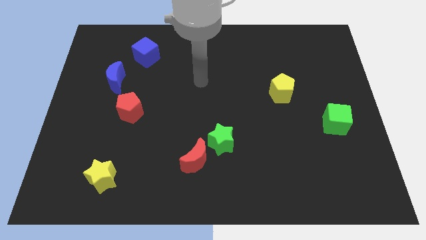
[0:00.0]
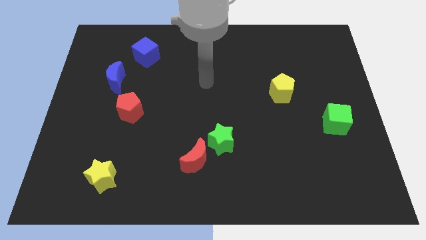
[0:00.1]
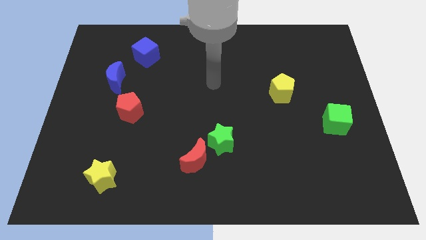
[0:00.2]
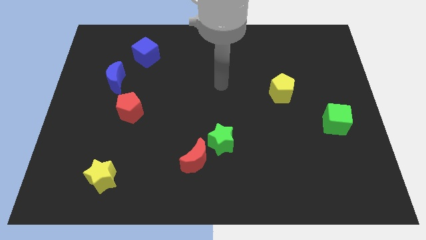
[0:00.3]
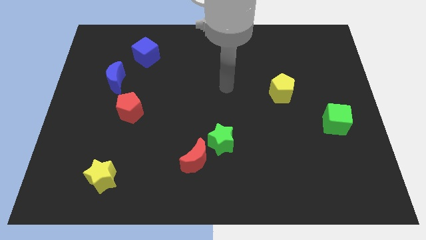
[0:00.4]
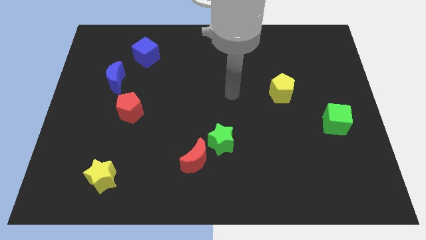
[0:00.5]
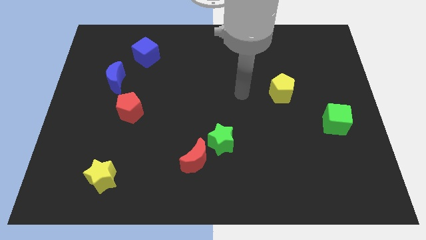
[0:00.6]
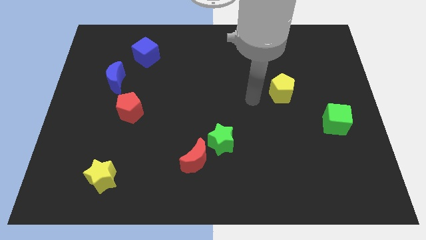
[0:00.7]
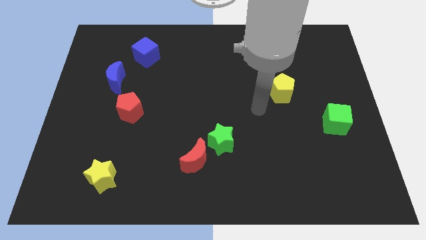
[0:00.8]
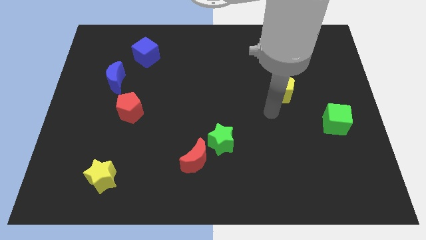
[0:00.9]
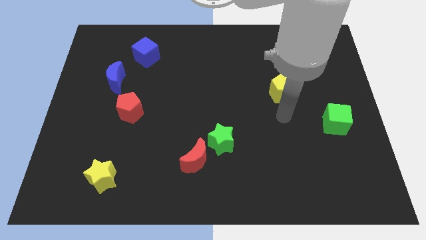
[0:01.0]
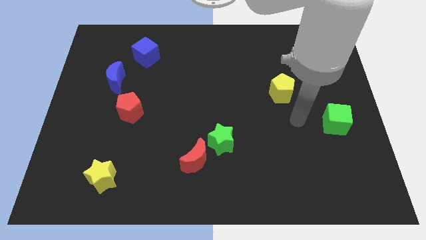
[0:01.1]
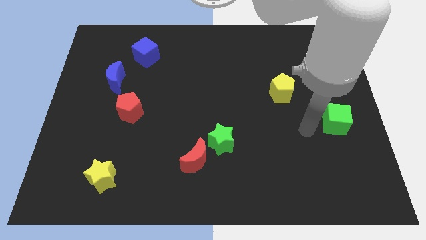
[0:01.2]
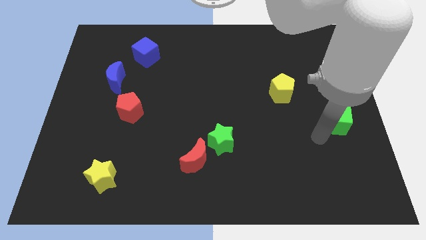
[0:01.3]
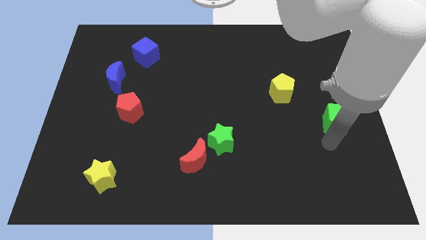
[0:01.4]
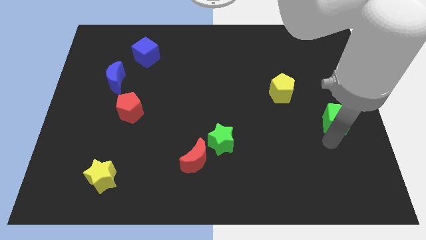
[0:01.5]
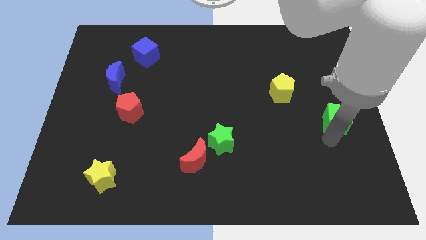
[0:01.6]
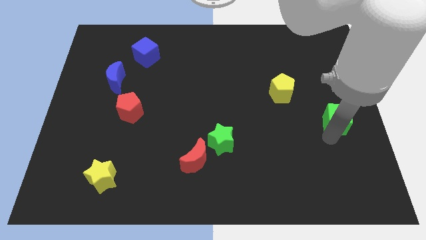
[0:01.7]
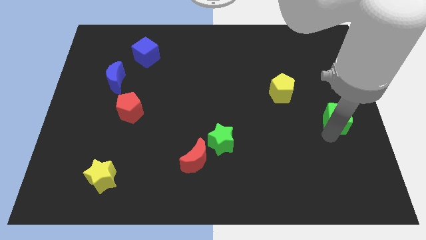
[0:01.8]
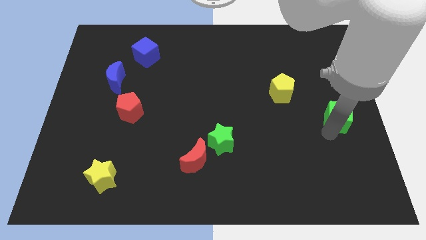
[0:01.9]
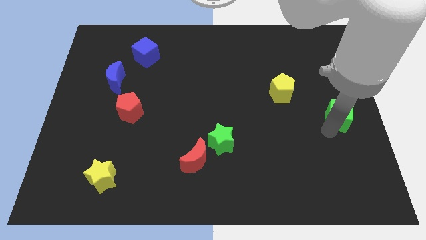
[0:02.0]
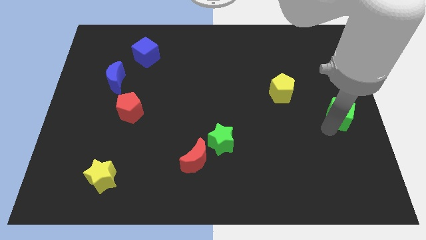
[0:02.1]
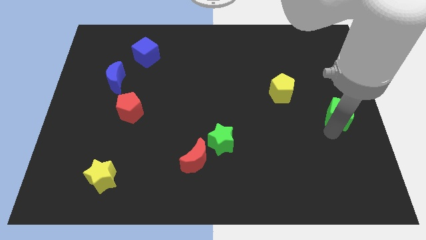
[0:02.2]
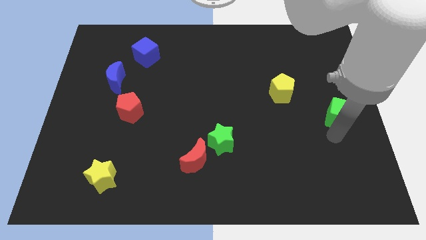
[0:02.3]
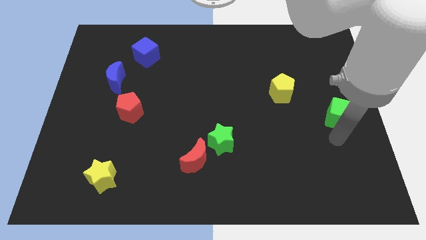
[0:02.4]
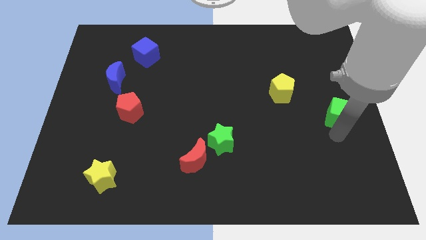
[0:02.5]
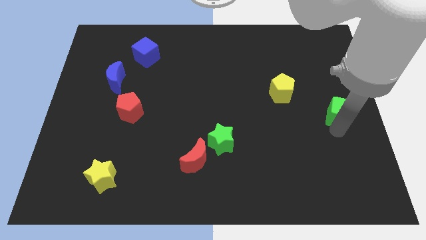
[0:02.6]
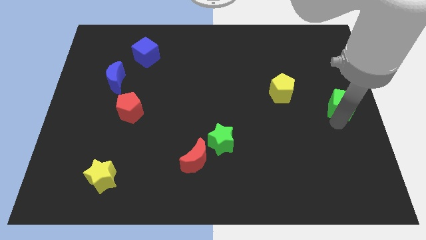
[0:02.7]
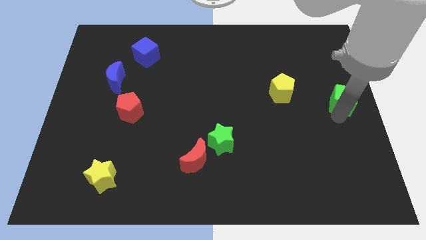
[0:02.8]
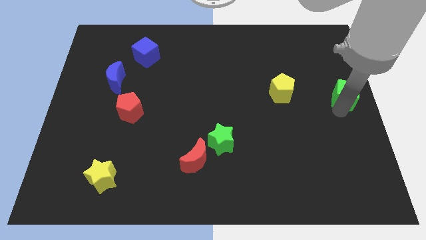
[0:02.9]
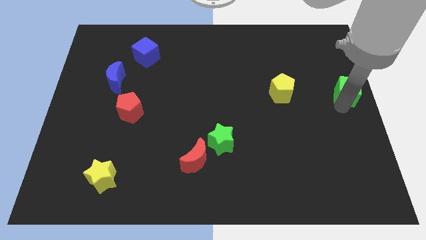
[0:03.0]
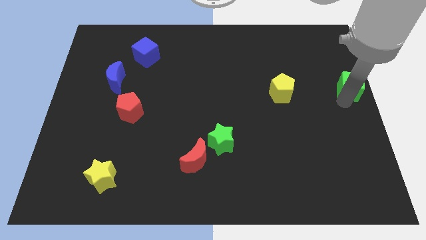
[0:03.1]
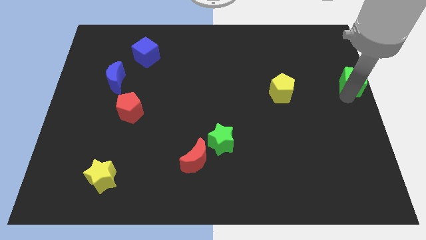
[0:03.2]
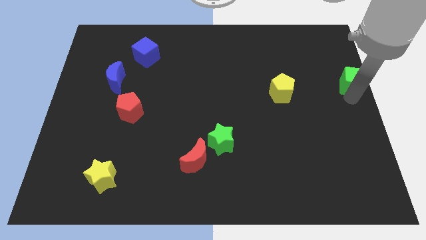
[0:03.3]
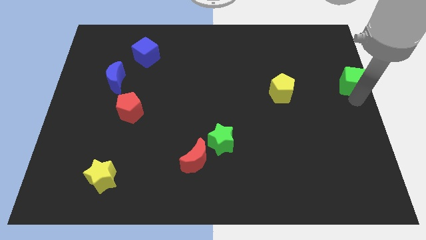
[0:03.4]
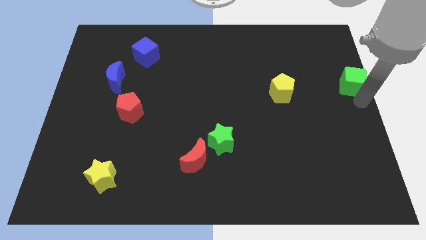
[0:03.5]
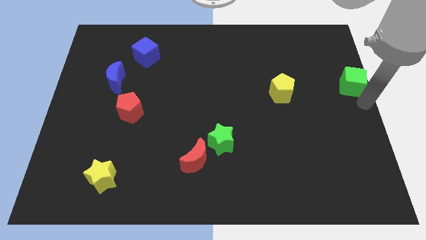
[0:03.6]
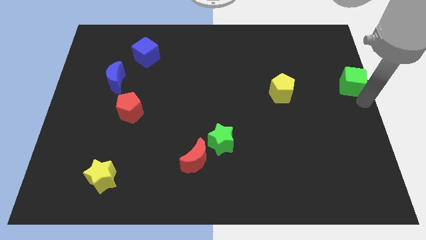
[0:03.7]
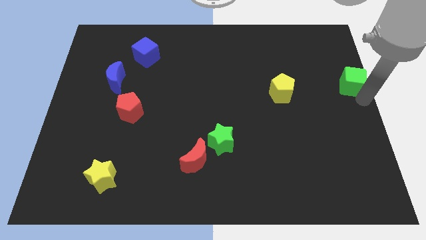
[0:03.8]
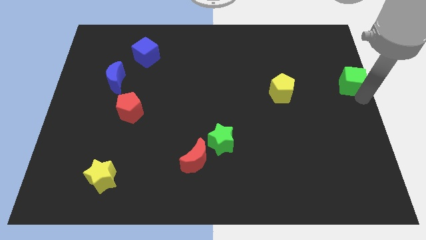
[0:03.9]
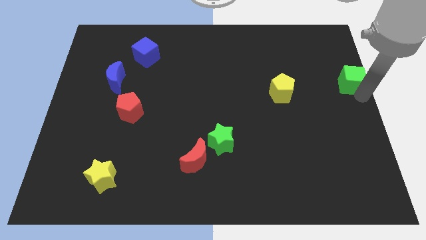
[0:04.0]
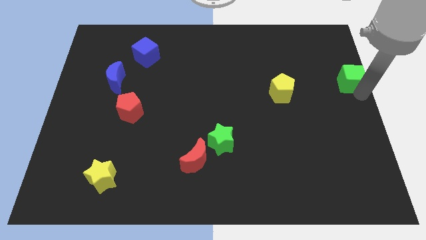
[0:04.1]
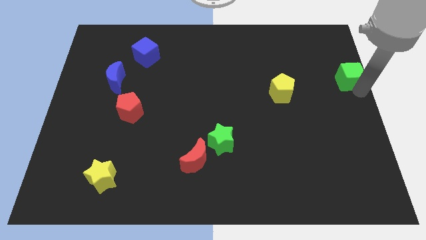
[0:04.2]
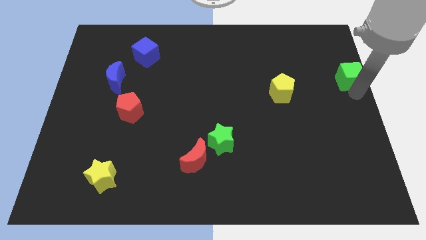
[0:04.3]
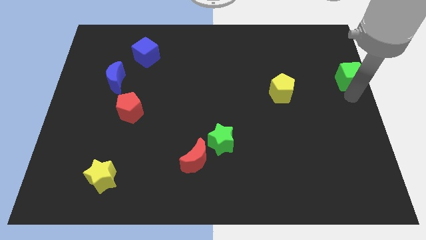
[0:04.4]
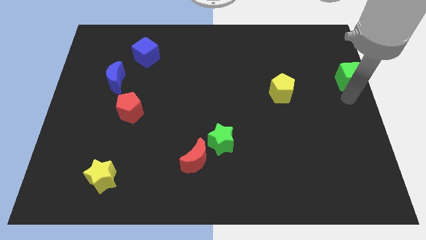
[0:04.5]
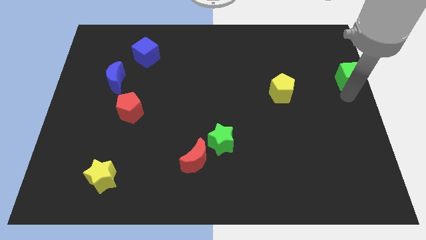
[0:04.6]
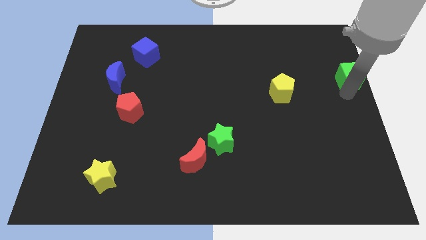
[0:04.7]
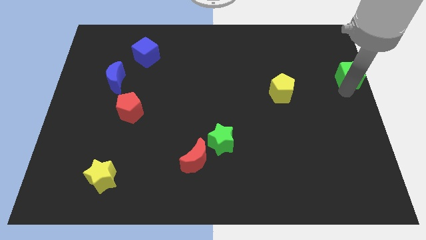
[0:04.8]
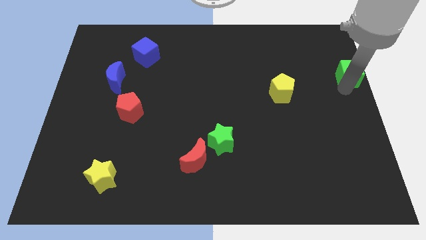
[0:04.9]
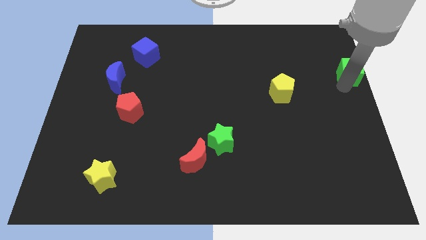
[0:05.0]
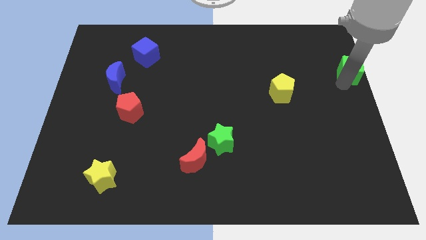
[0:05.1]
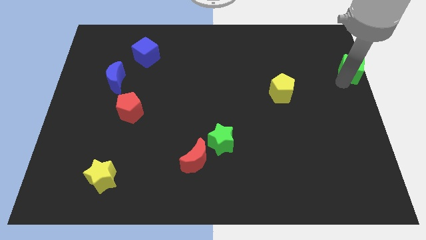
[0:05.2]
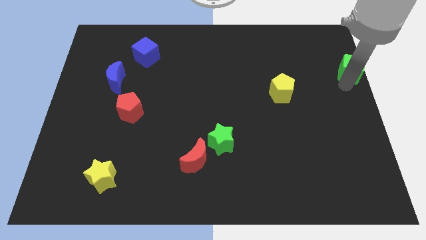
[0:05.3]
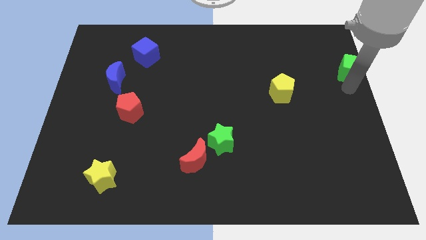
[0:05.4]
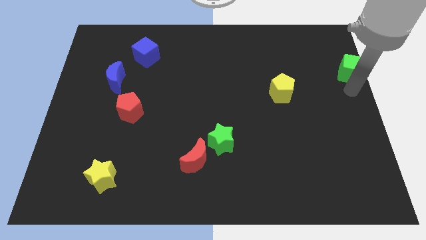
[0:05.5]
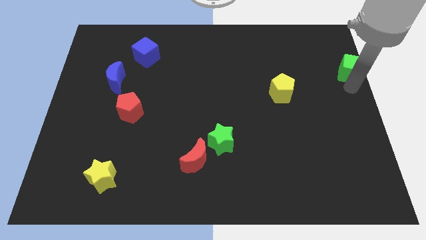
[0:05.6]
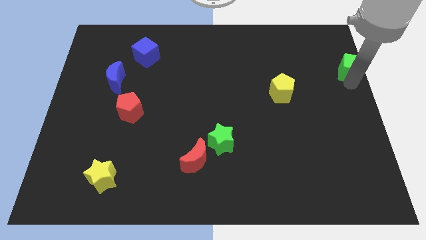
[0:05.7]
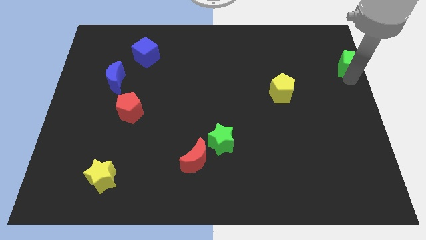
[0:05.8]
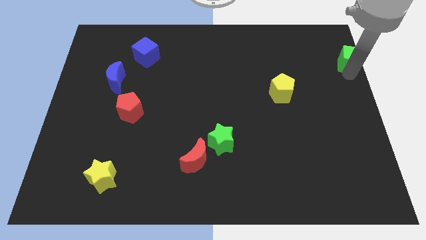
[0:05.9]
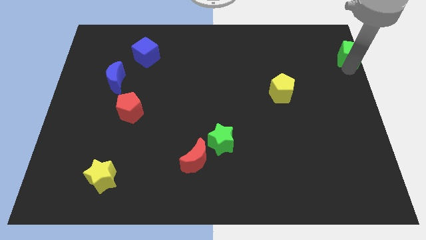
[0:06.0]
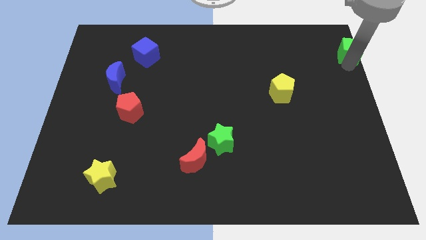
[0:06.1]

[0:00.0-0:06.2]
put the green cube to the top right

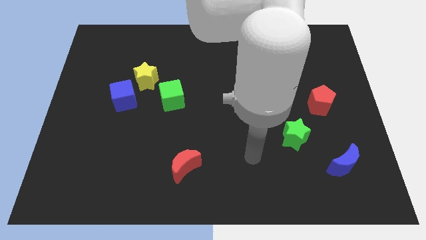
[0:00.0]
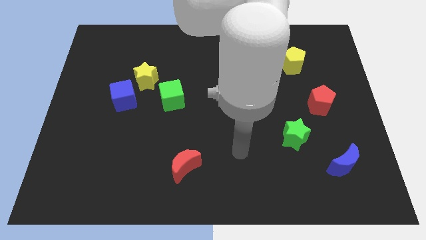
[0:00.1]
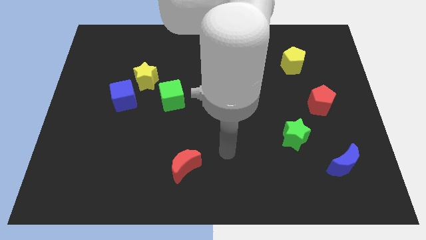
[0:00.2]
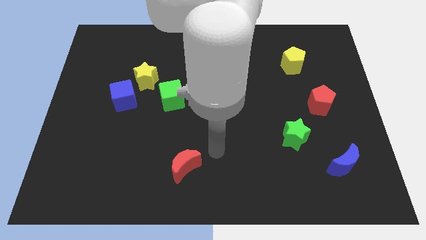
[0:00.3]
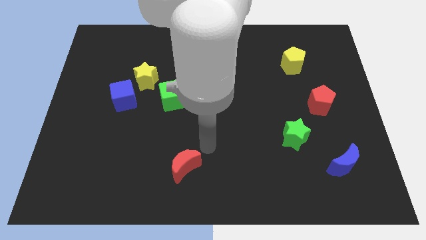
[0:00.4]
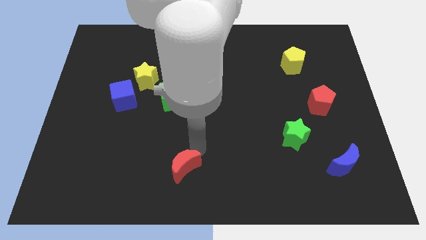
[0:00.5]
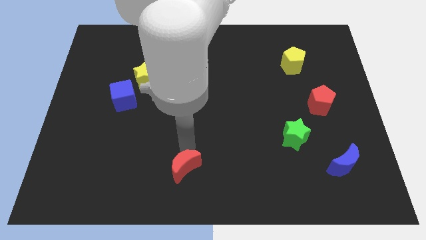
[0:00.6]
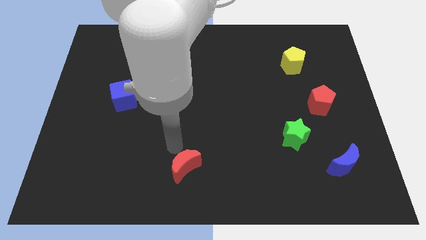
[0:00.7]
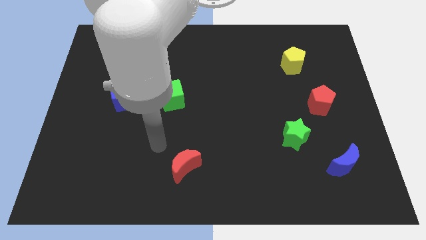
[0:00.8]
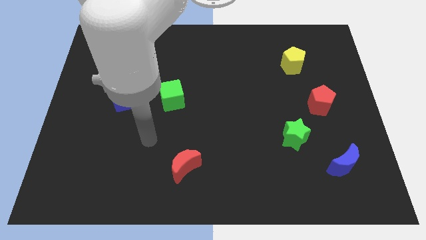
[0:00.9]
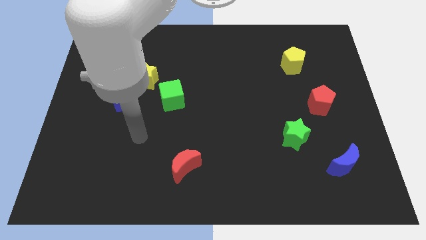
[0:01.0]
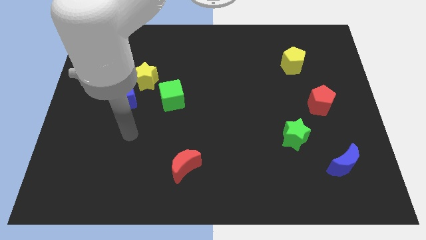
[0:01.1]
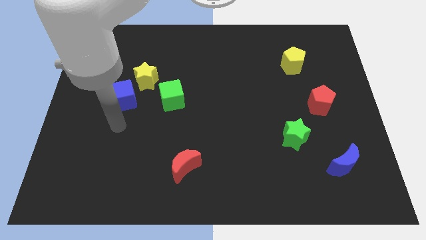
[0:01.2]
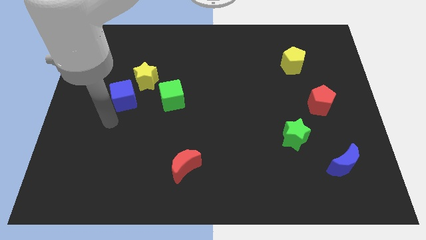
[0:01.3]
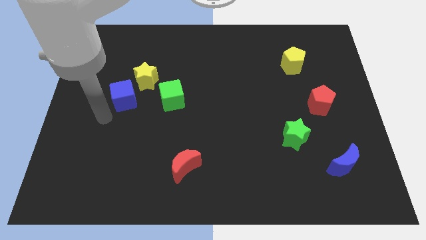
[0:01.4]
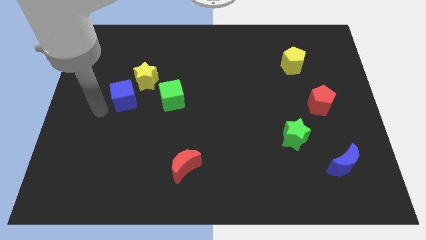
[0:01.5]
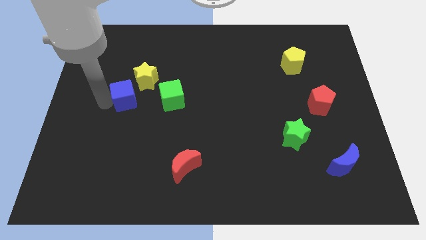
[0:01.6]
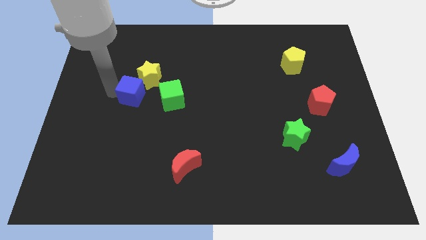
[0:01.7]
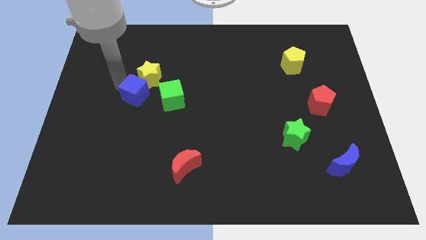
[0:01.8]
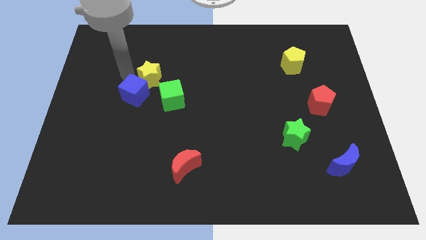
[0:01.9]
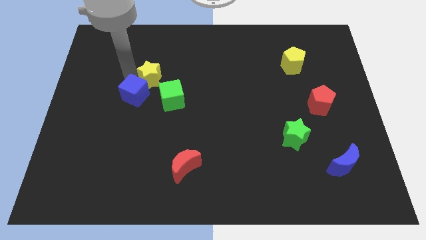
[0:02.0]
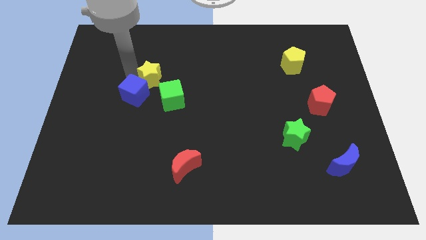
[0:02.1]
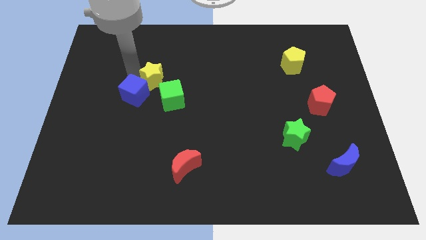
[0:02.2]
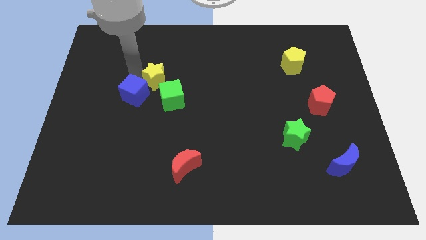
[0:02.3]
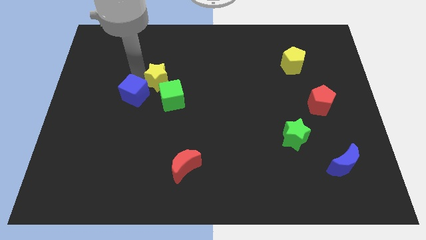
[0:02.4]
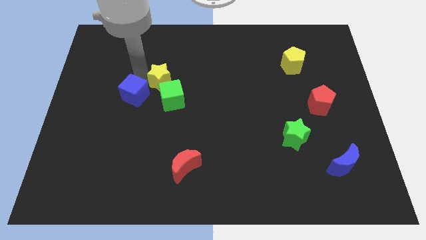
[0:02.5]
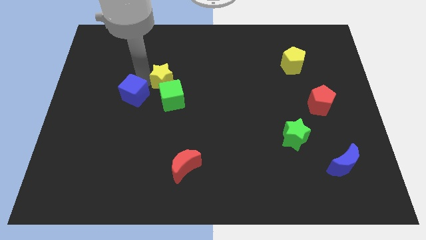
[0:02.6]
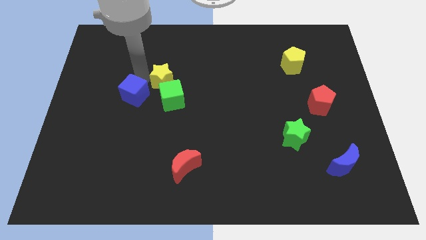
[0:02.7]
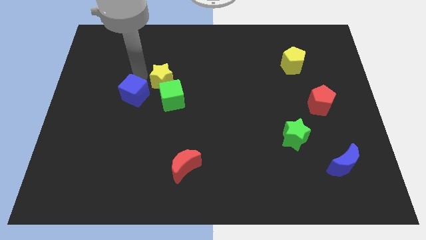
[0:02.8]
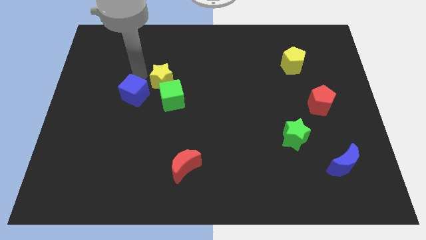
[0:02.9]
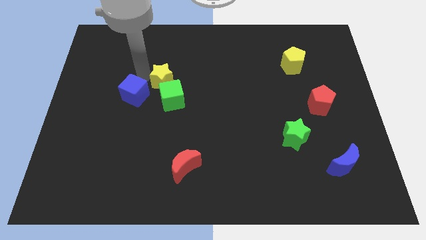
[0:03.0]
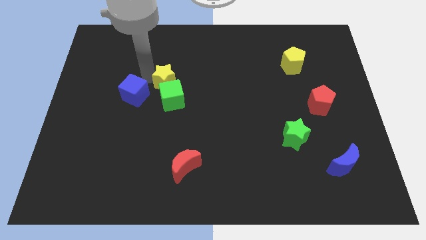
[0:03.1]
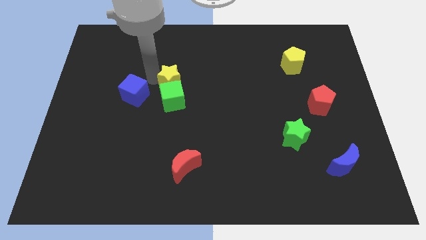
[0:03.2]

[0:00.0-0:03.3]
push the yellow star to the center of the board
